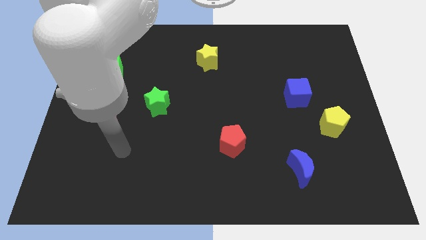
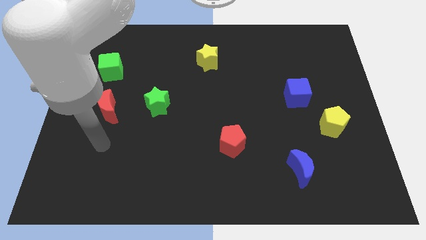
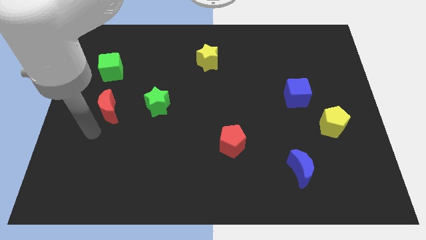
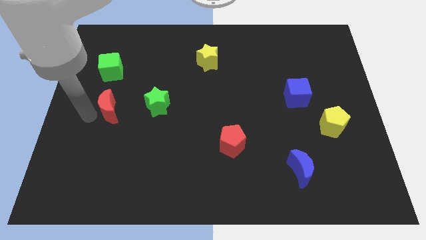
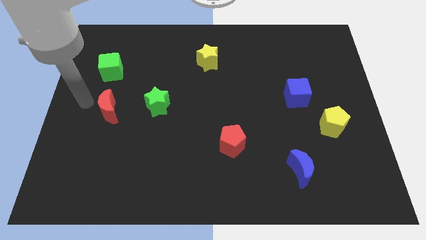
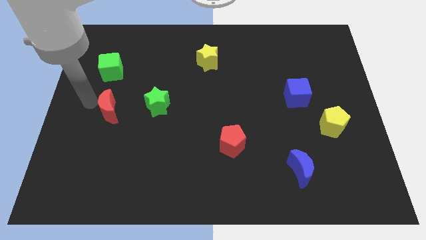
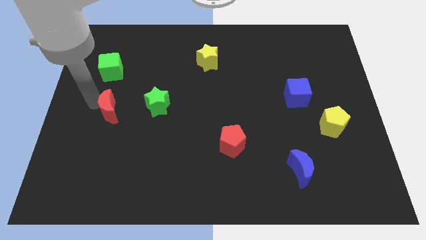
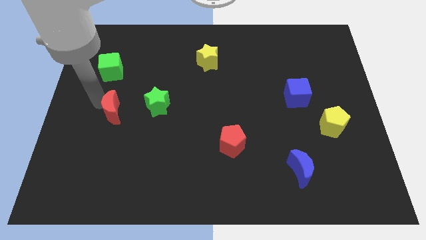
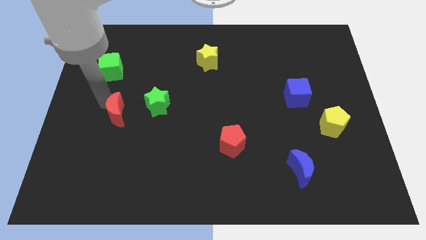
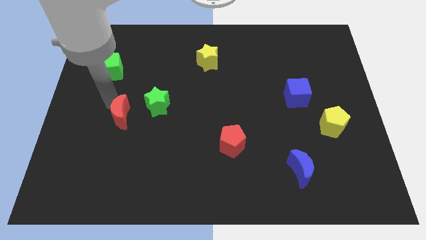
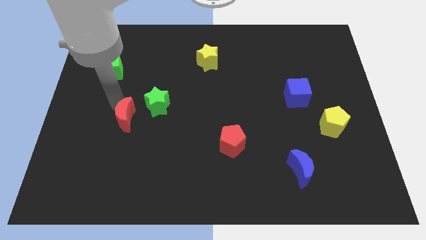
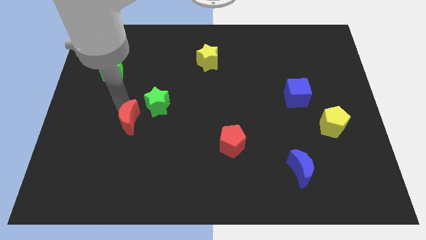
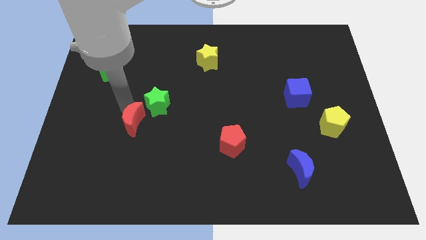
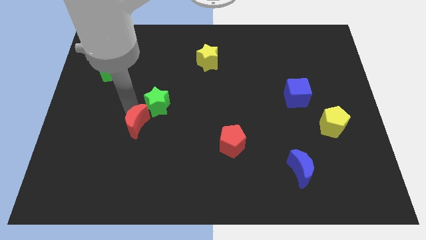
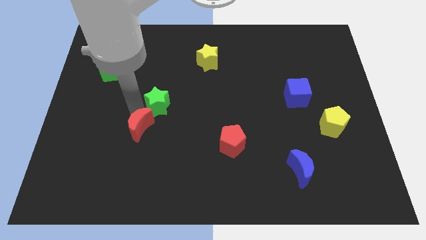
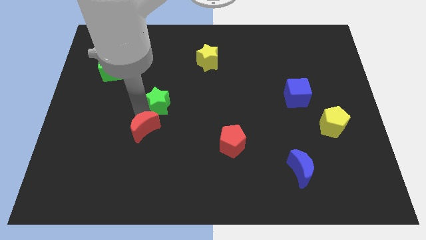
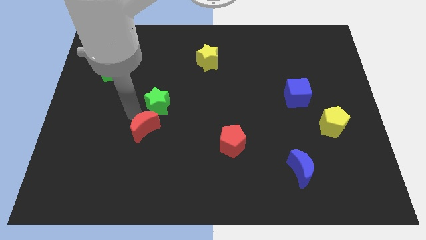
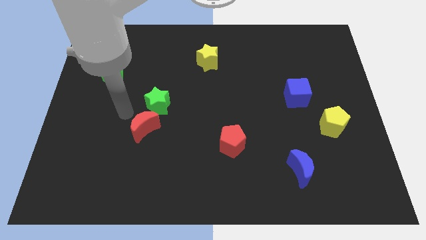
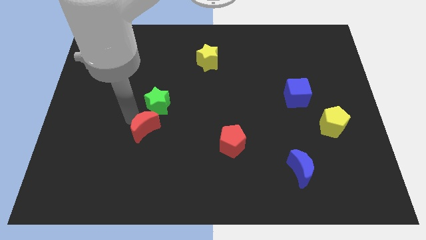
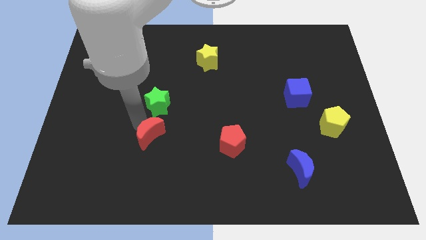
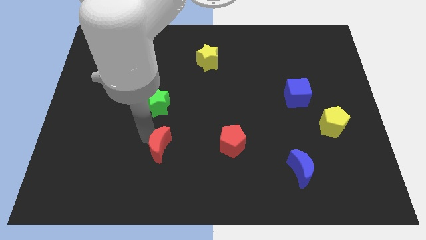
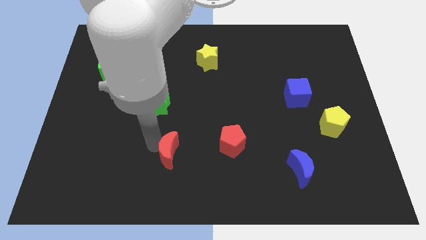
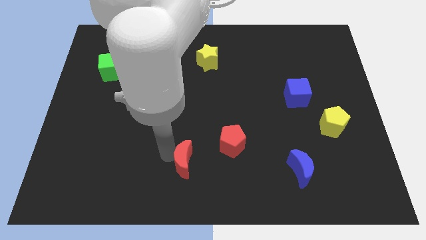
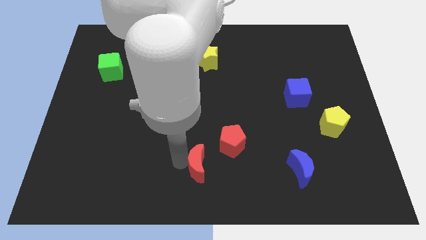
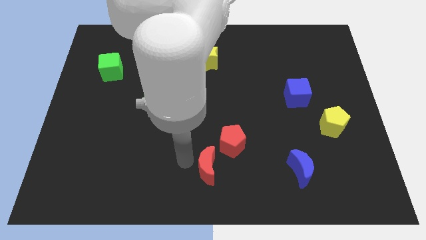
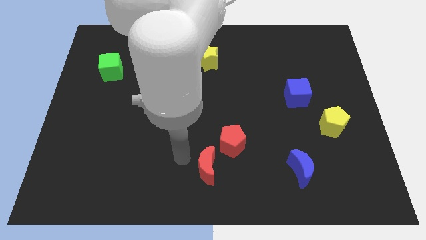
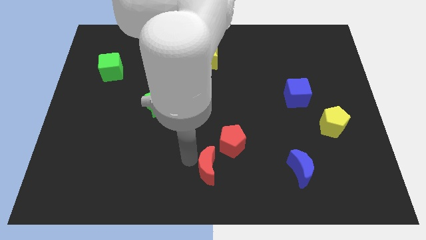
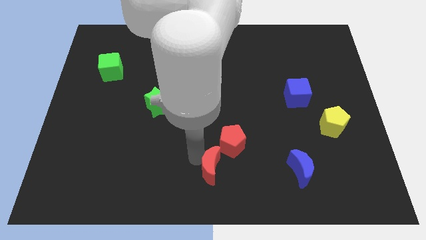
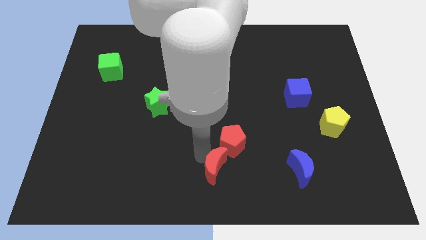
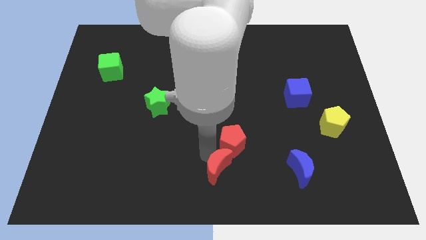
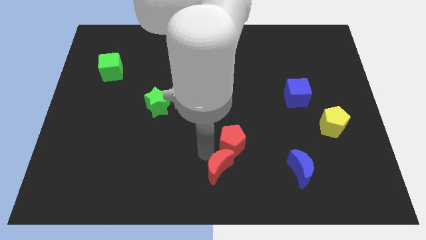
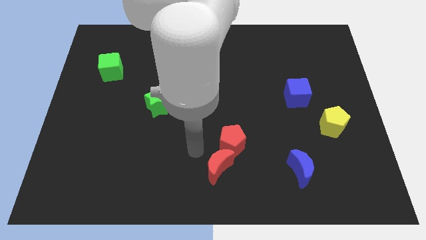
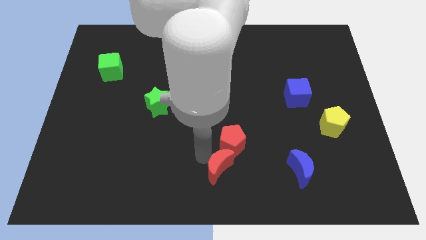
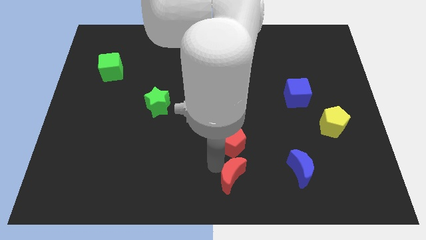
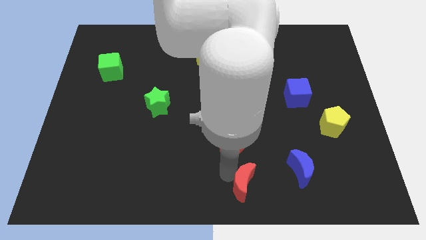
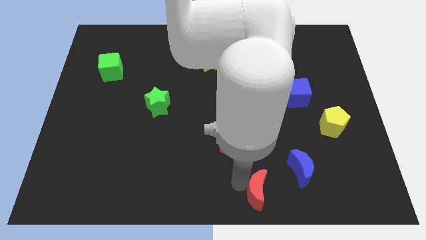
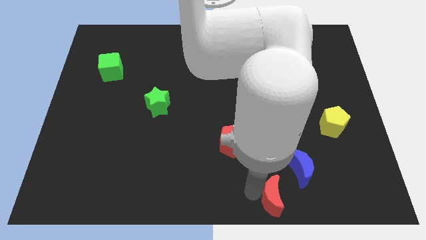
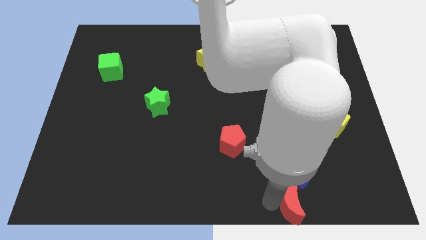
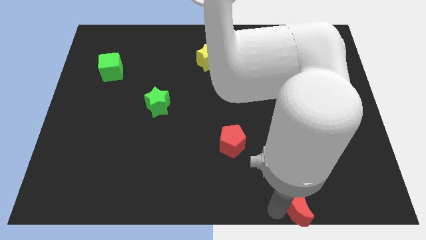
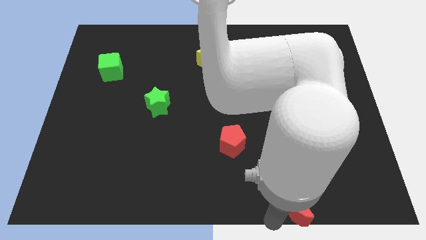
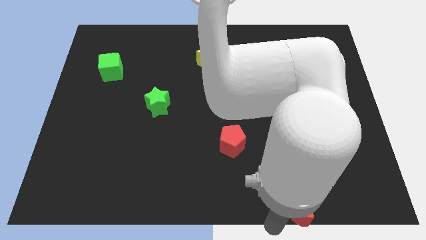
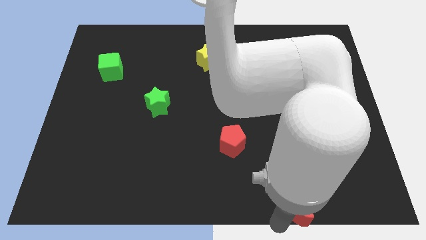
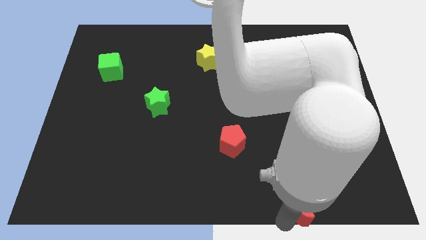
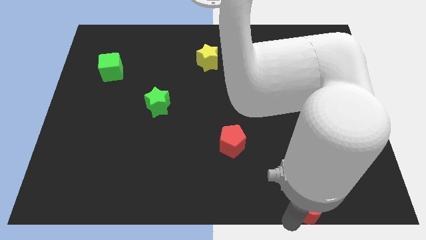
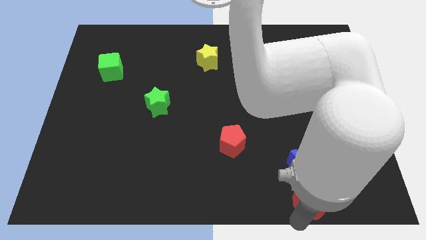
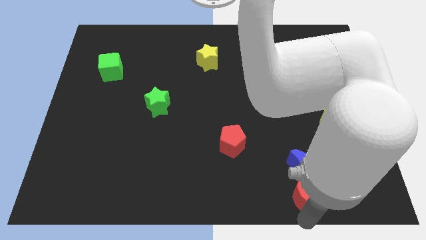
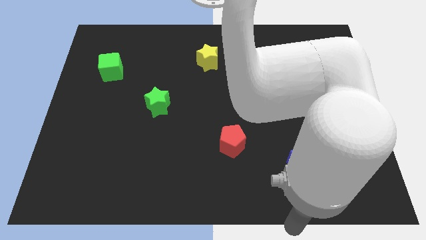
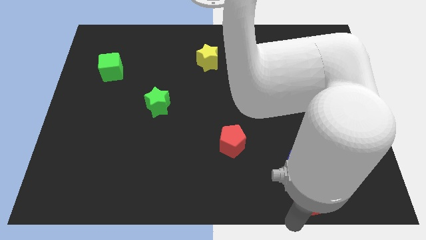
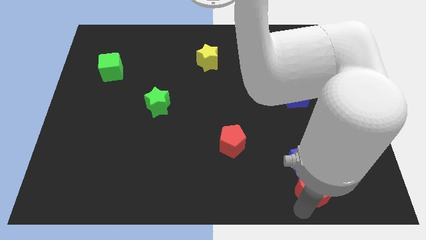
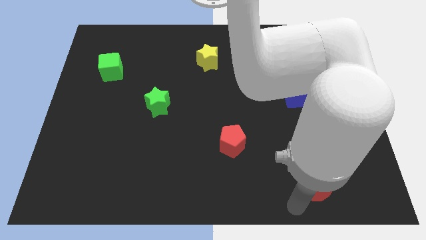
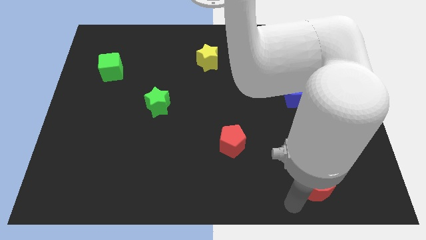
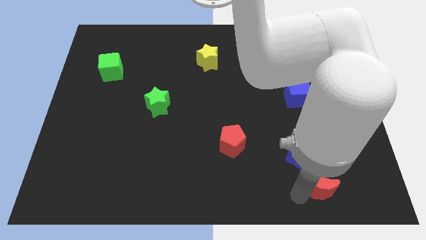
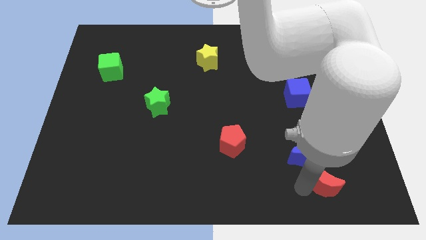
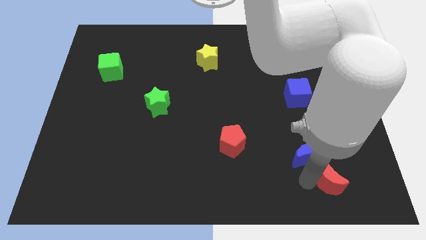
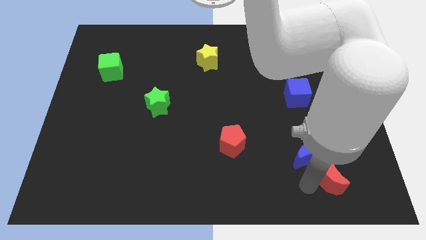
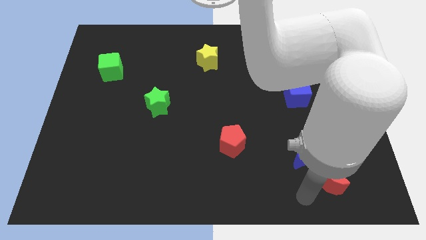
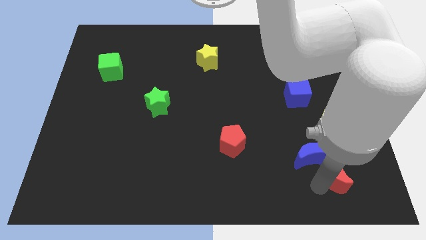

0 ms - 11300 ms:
slide the red moon to the right side of the blue moon

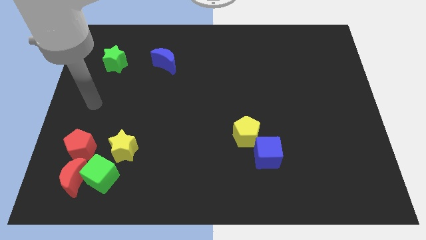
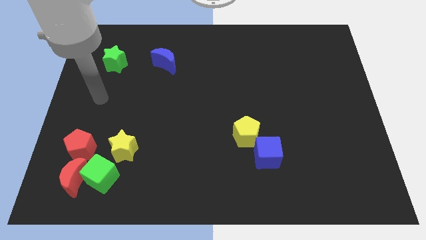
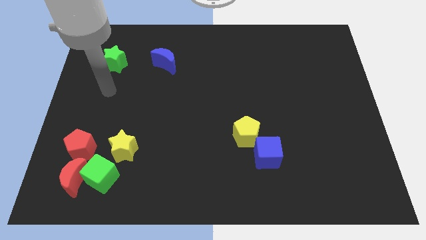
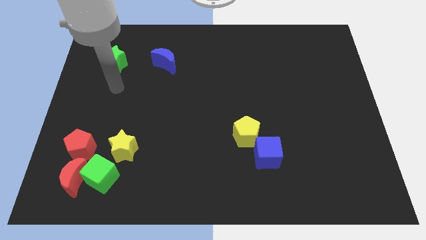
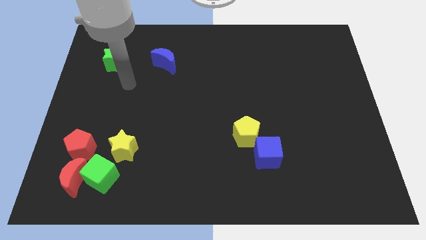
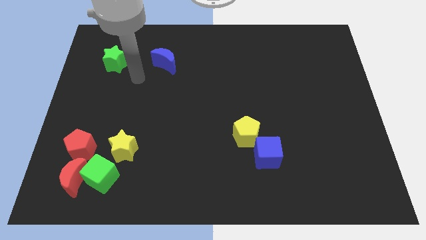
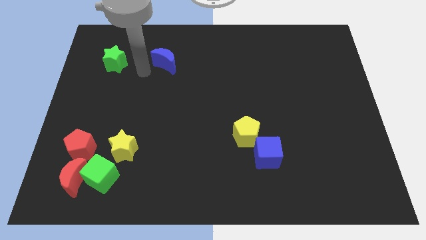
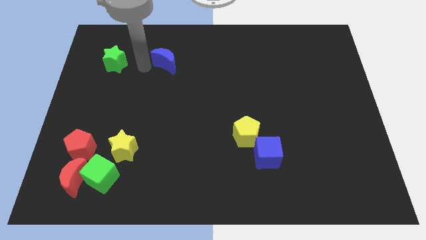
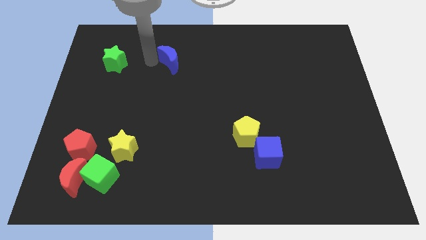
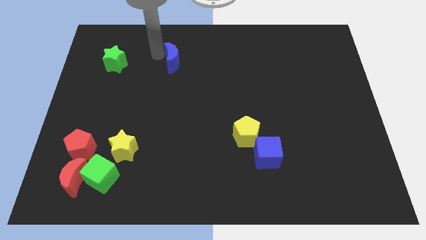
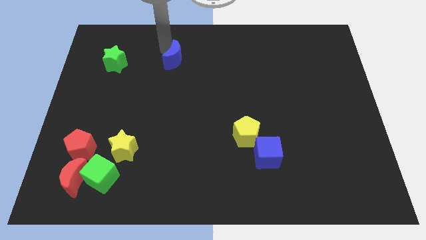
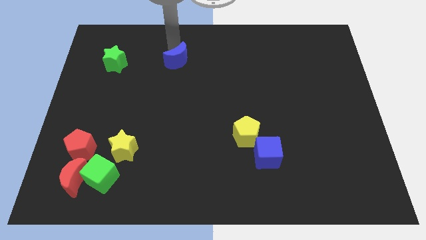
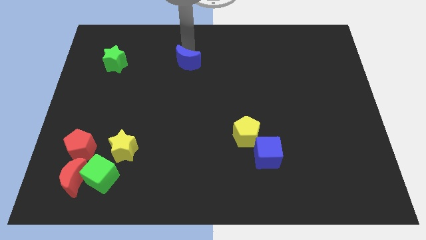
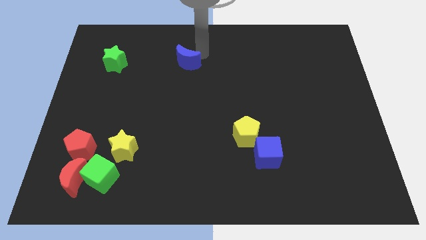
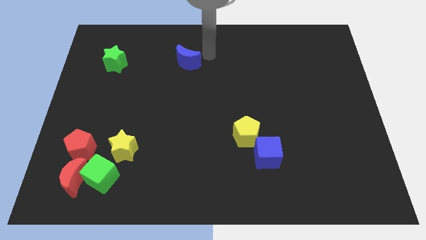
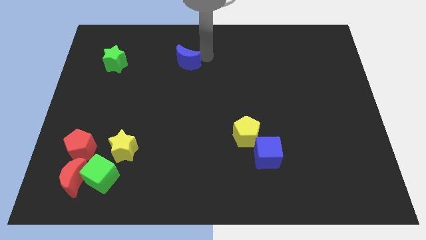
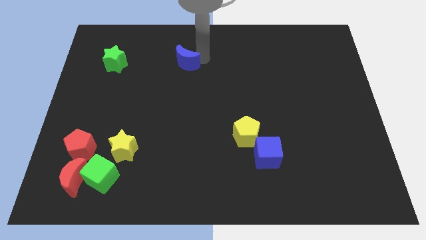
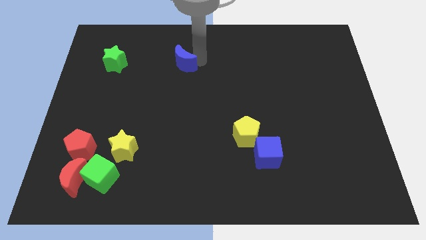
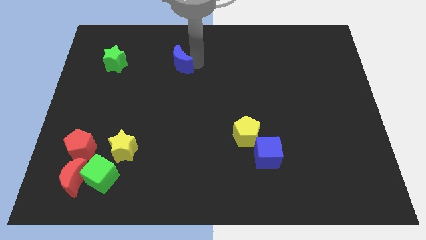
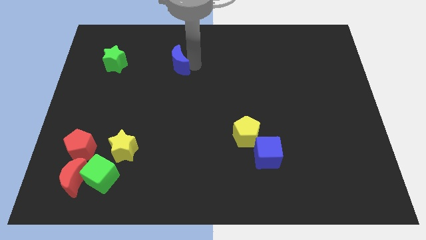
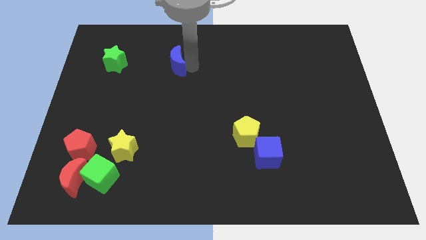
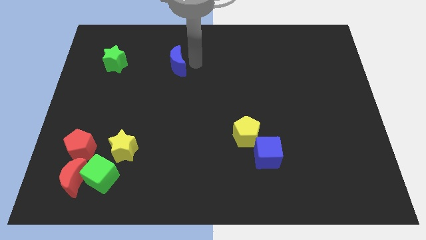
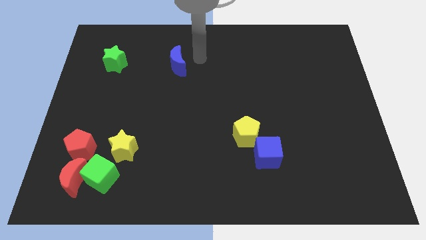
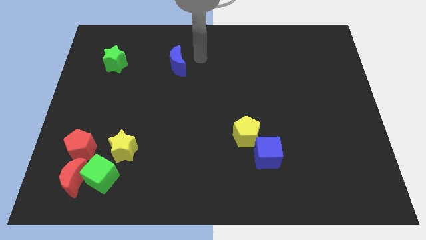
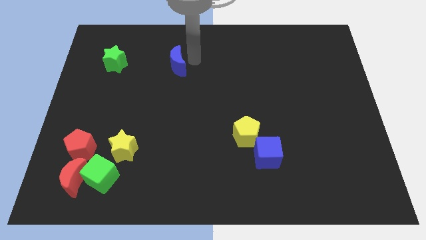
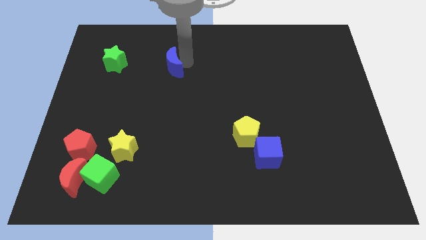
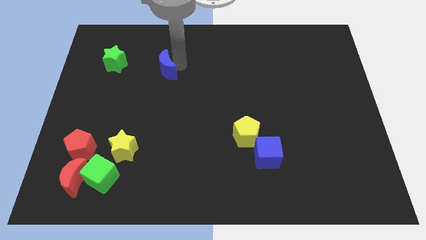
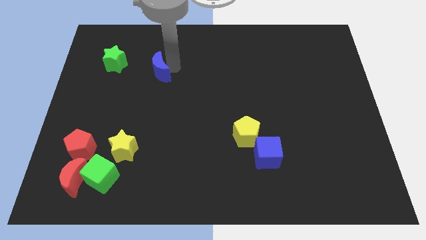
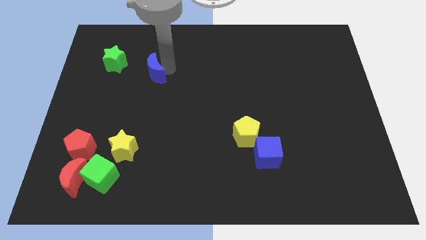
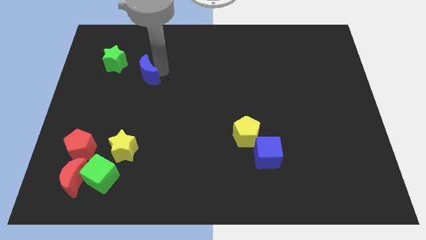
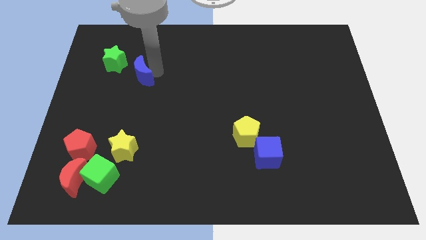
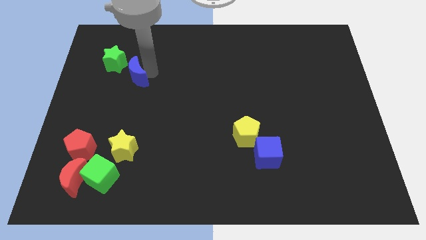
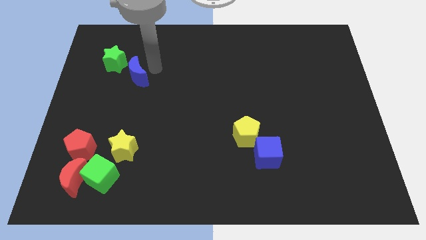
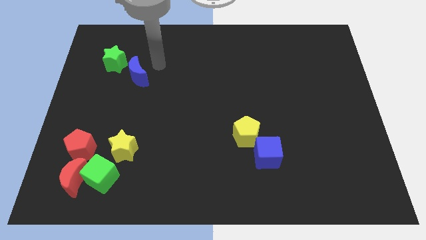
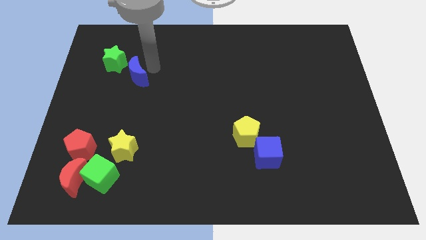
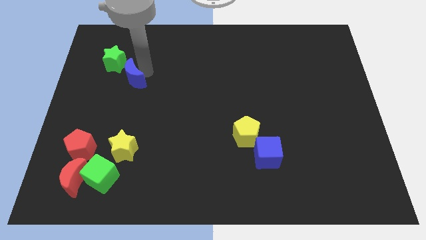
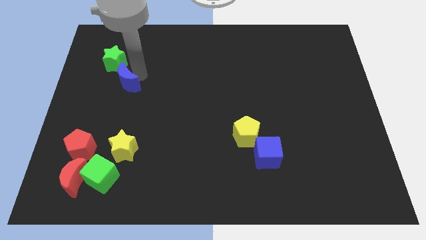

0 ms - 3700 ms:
slide the blue moon to the bottom of the green star
